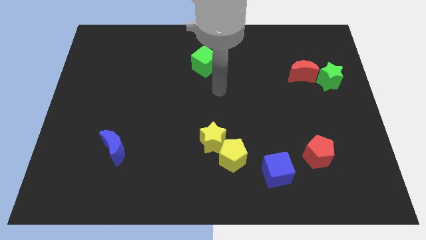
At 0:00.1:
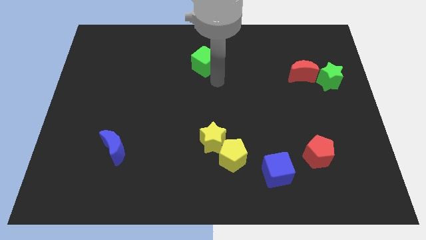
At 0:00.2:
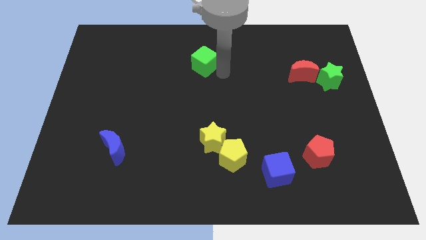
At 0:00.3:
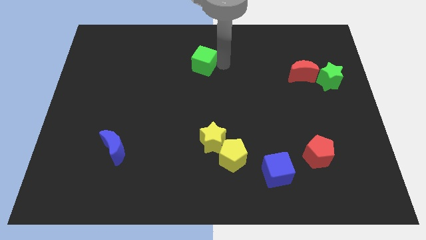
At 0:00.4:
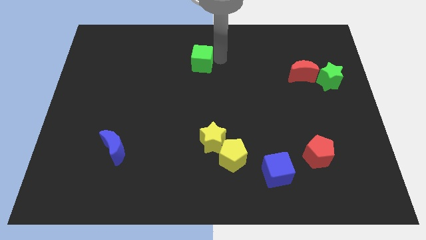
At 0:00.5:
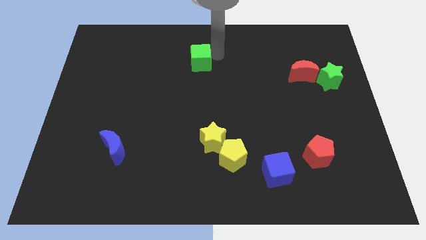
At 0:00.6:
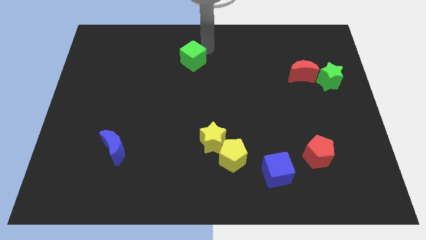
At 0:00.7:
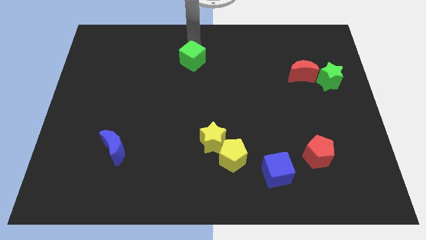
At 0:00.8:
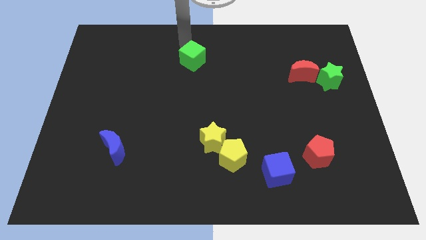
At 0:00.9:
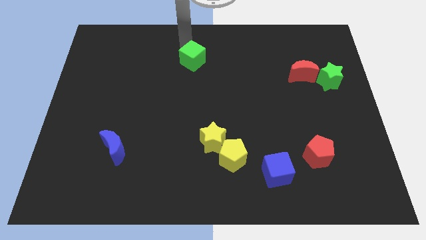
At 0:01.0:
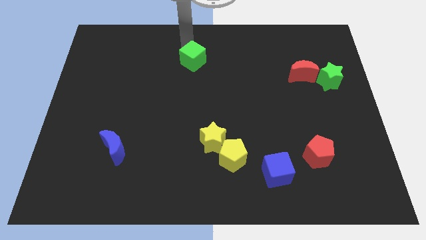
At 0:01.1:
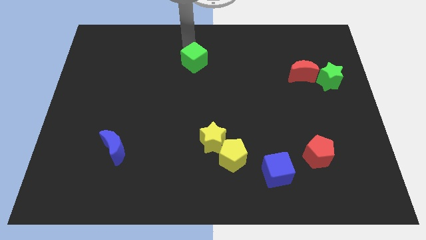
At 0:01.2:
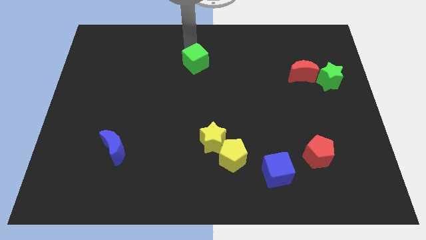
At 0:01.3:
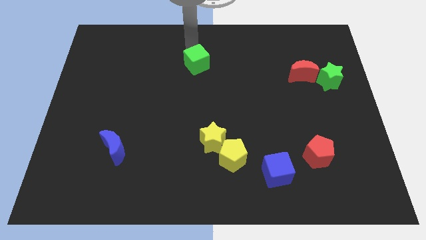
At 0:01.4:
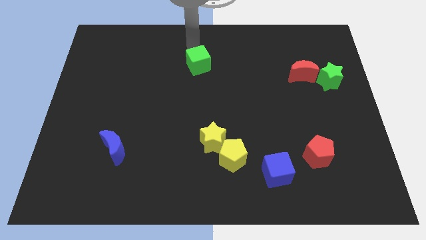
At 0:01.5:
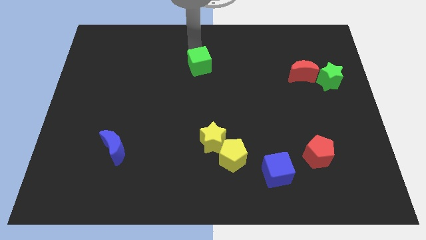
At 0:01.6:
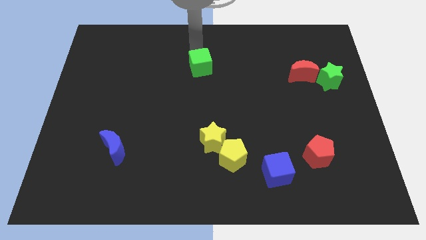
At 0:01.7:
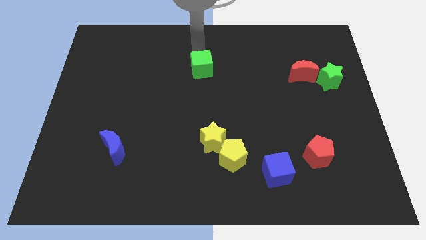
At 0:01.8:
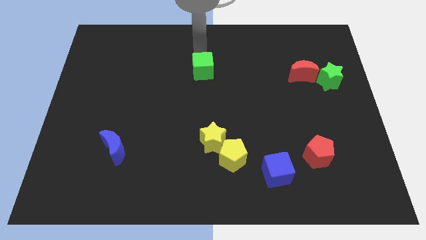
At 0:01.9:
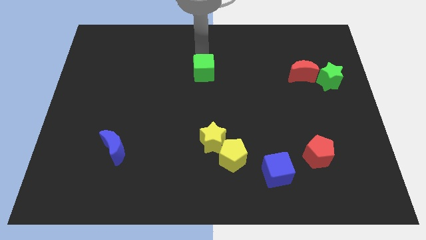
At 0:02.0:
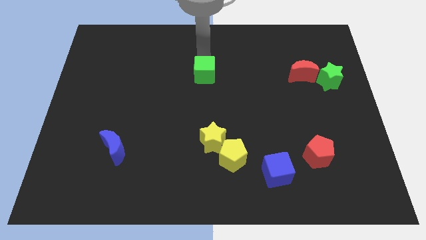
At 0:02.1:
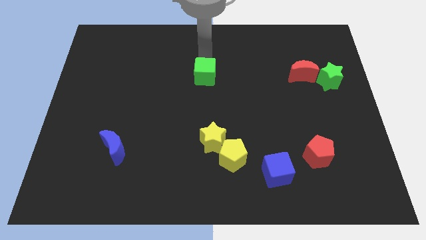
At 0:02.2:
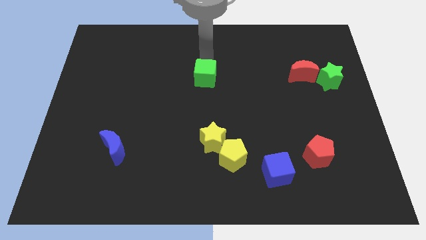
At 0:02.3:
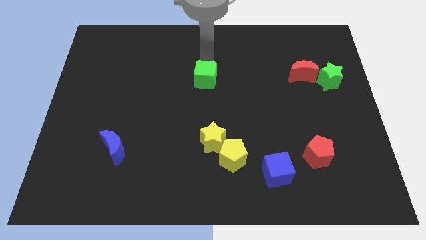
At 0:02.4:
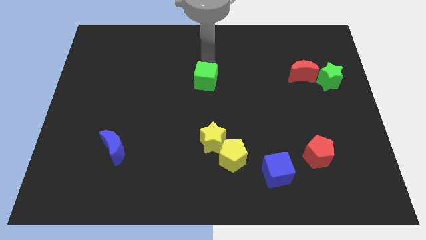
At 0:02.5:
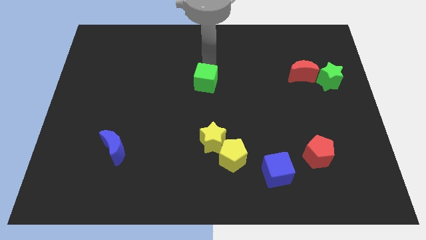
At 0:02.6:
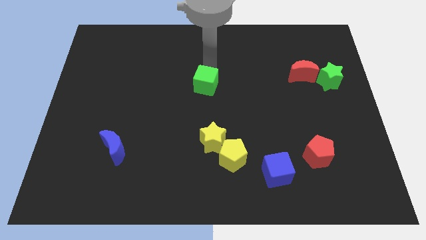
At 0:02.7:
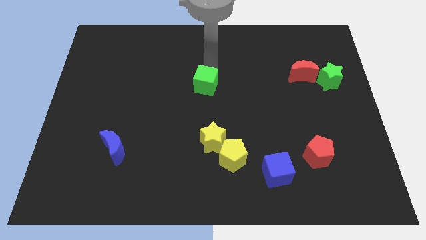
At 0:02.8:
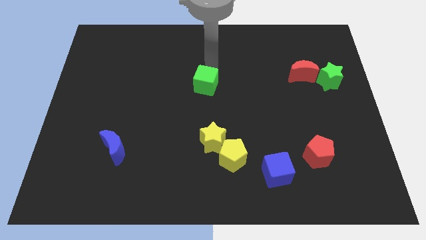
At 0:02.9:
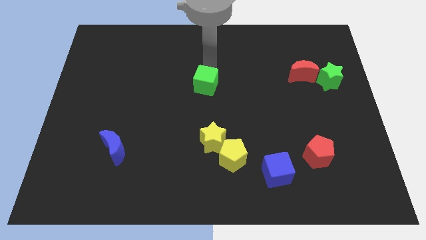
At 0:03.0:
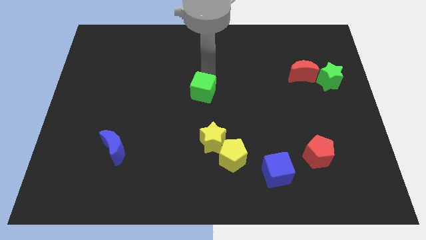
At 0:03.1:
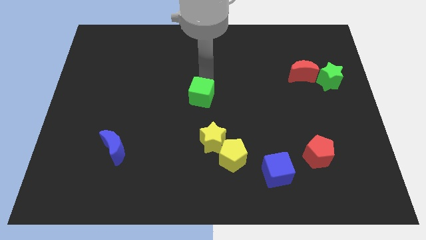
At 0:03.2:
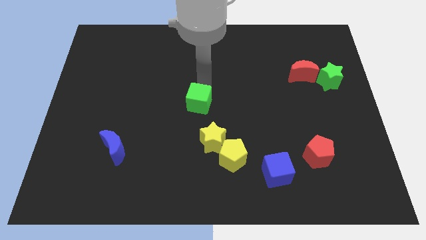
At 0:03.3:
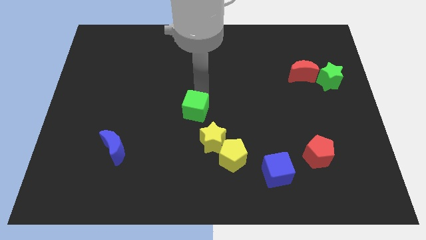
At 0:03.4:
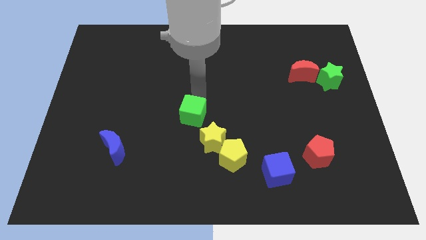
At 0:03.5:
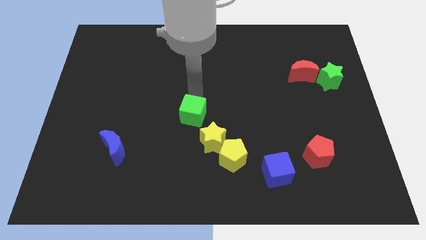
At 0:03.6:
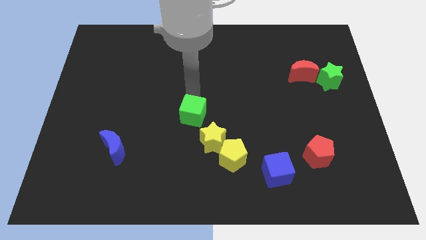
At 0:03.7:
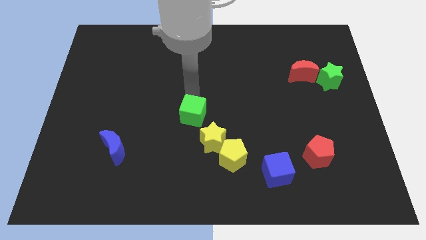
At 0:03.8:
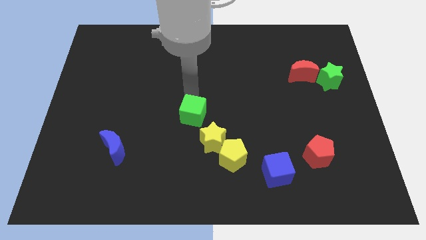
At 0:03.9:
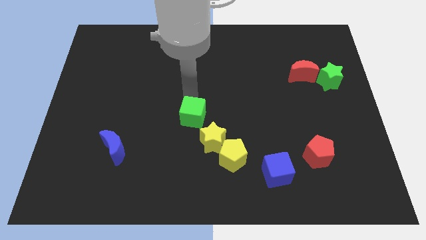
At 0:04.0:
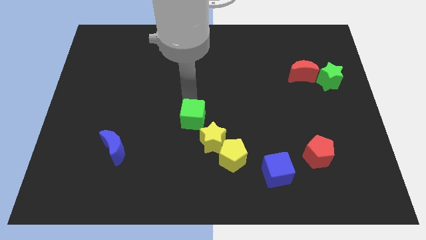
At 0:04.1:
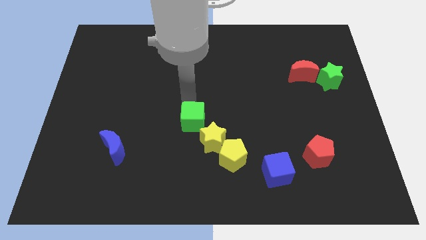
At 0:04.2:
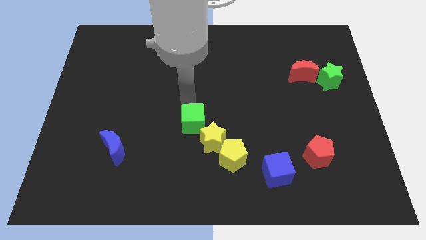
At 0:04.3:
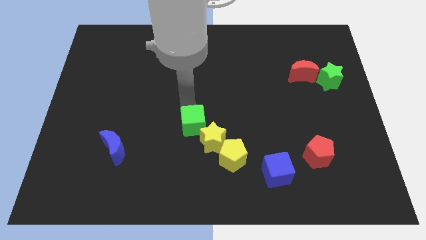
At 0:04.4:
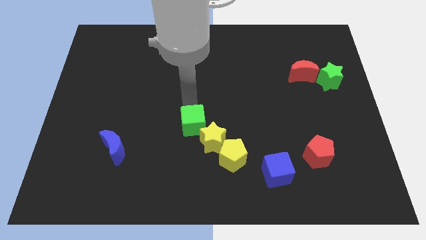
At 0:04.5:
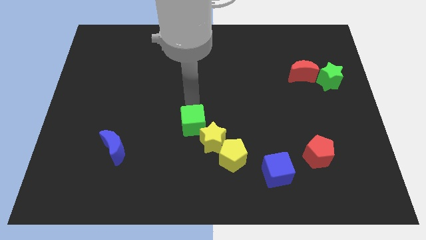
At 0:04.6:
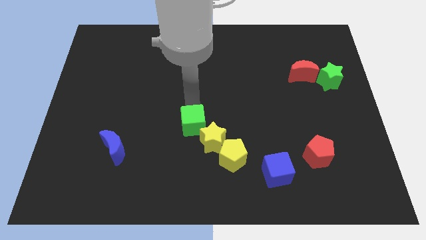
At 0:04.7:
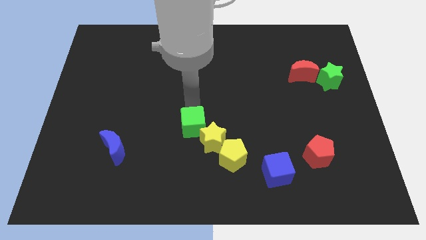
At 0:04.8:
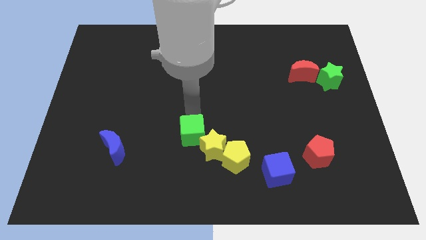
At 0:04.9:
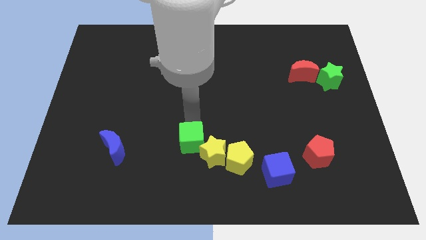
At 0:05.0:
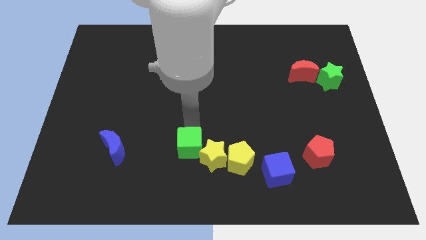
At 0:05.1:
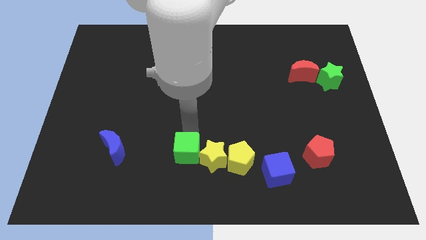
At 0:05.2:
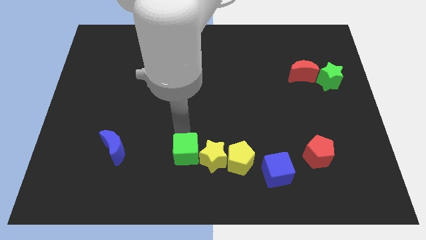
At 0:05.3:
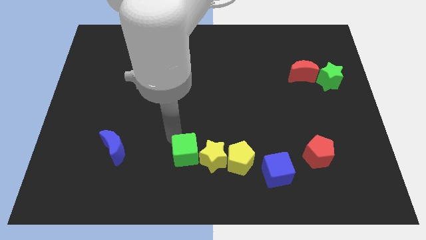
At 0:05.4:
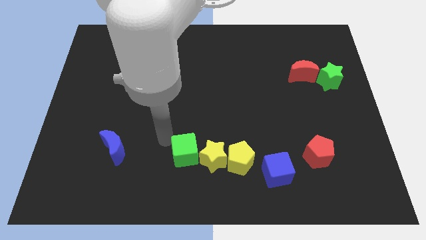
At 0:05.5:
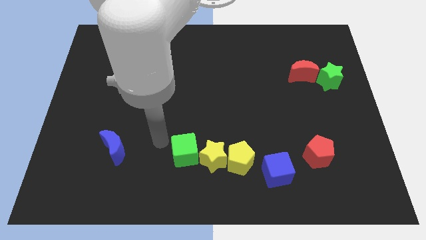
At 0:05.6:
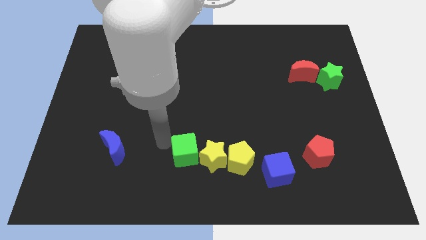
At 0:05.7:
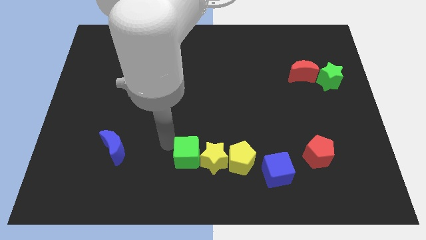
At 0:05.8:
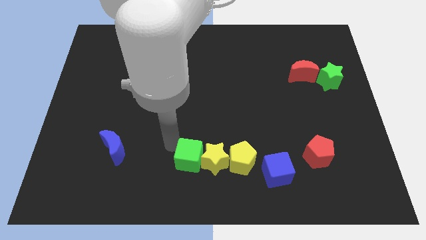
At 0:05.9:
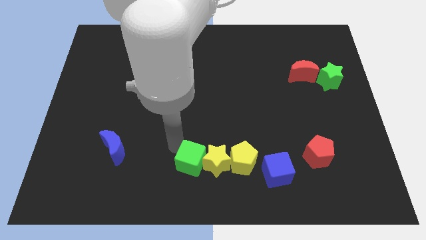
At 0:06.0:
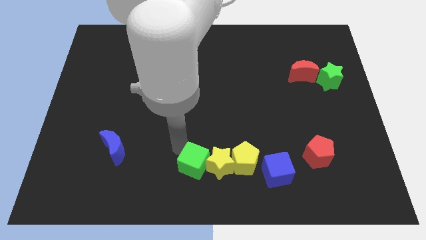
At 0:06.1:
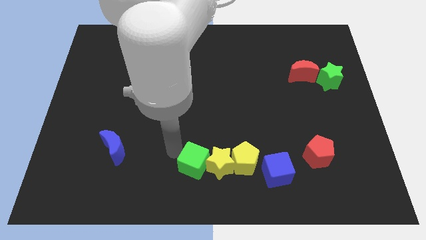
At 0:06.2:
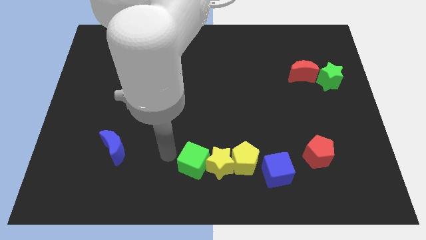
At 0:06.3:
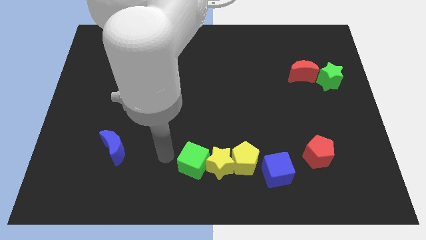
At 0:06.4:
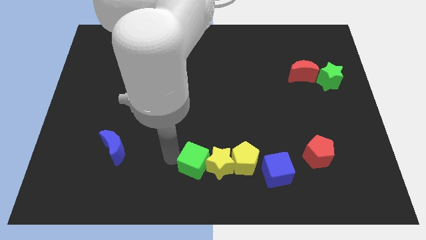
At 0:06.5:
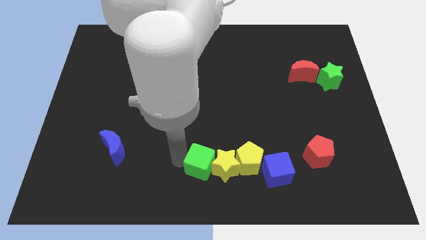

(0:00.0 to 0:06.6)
push the green cube just left of the blue cube
